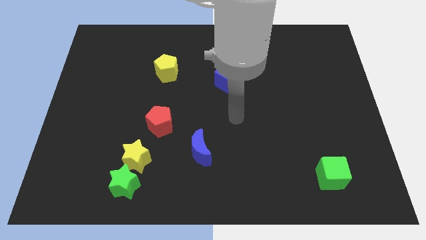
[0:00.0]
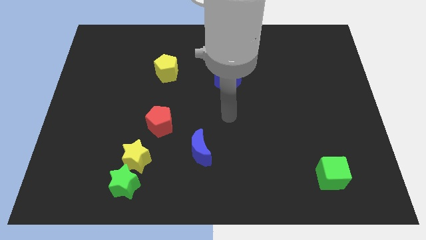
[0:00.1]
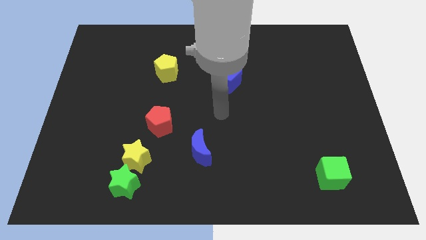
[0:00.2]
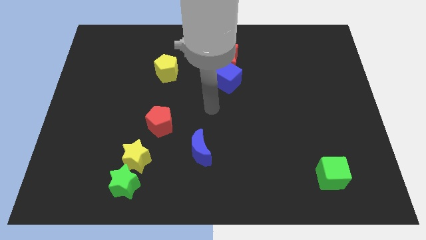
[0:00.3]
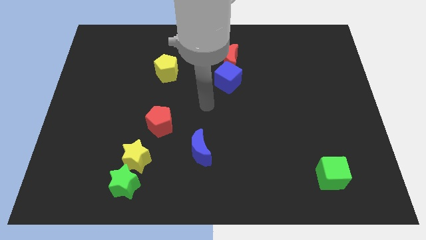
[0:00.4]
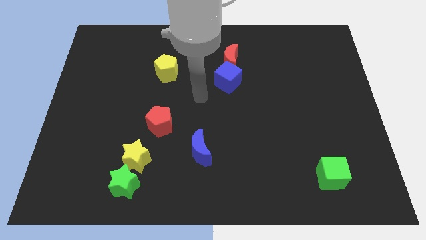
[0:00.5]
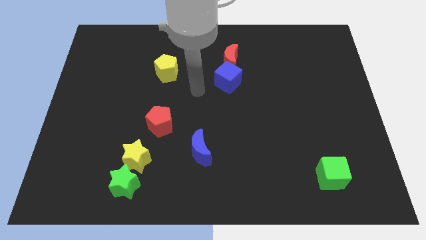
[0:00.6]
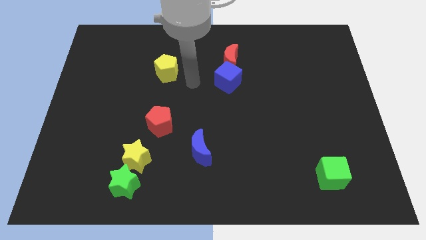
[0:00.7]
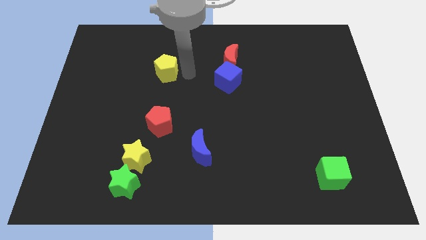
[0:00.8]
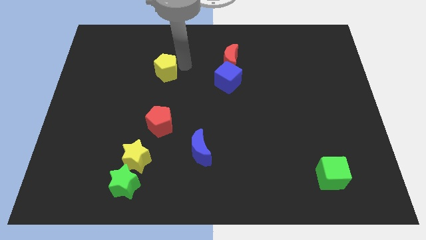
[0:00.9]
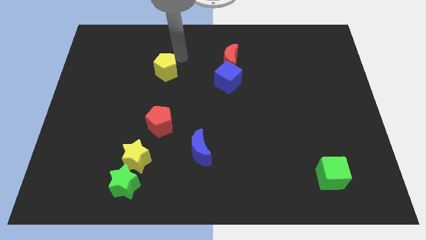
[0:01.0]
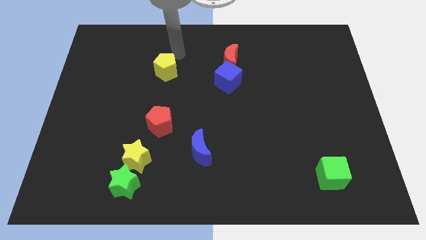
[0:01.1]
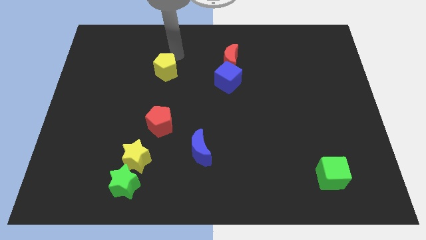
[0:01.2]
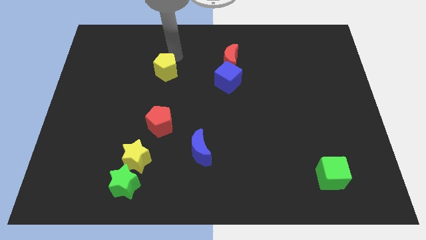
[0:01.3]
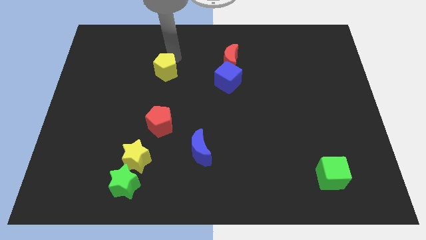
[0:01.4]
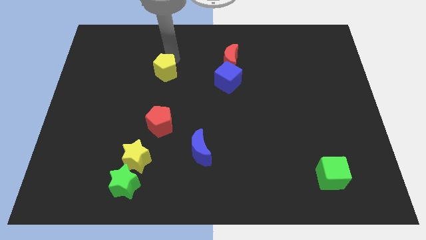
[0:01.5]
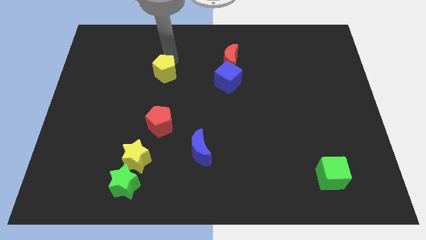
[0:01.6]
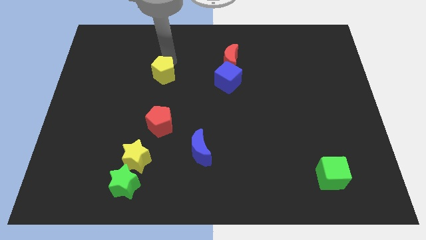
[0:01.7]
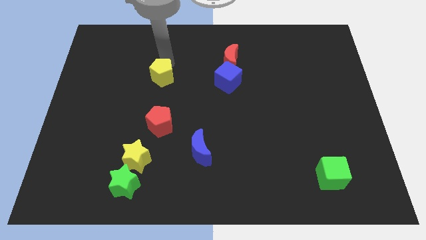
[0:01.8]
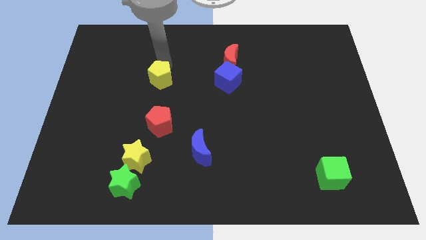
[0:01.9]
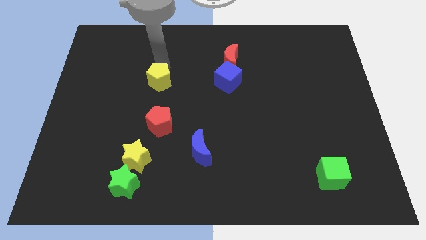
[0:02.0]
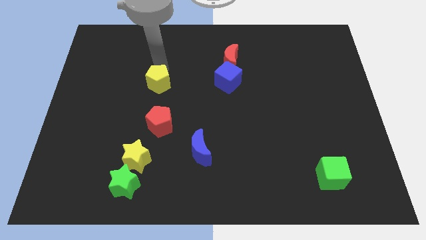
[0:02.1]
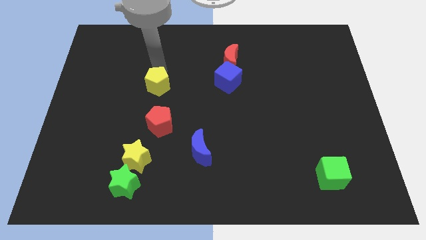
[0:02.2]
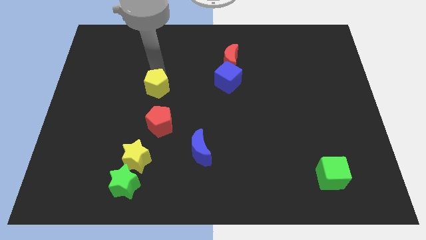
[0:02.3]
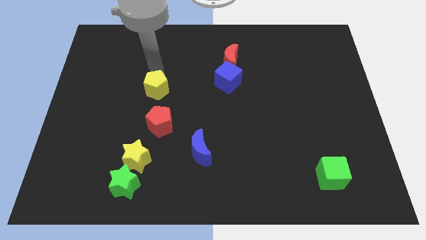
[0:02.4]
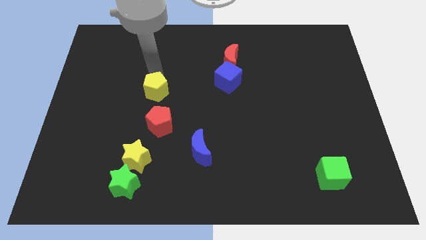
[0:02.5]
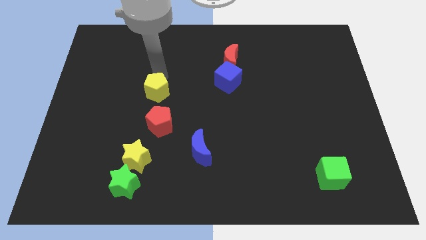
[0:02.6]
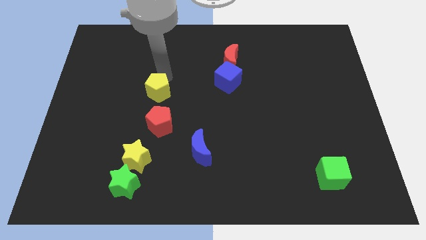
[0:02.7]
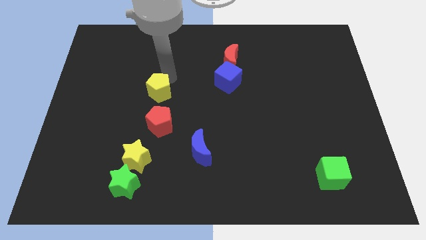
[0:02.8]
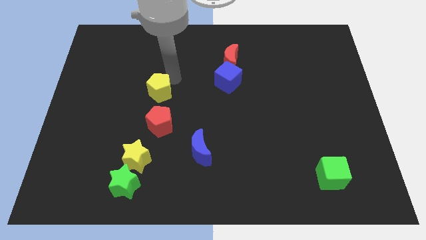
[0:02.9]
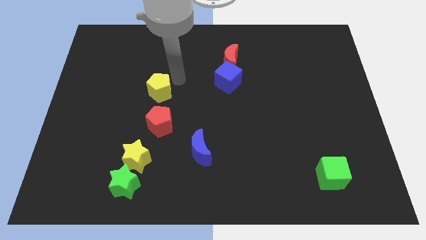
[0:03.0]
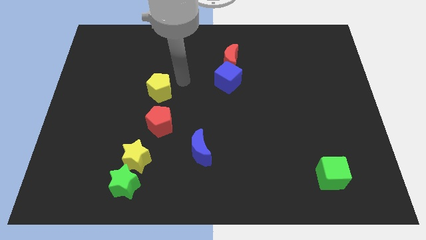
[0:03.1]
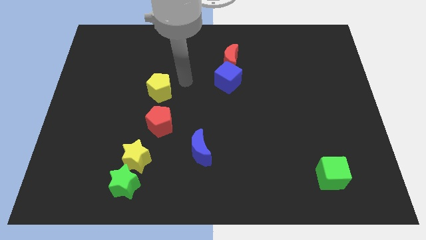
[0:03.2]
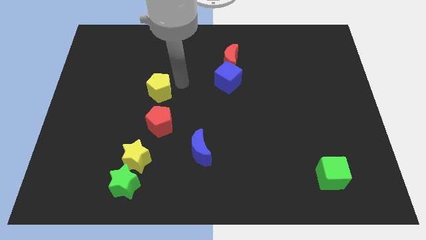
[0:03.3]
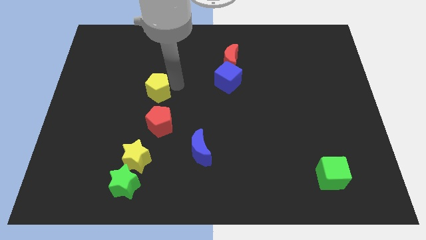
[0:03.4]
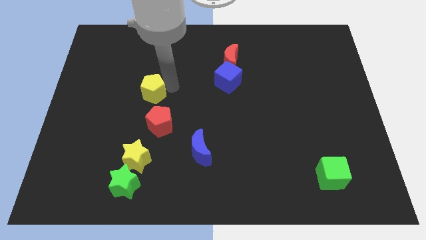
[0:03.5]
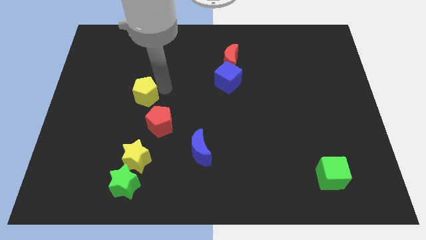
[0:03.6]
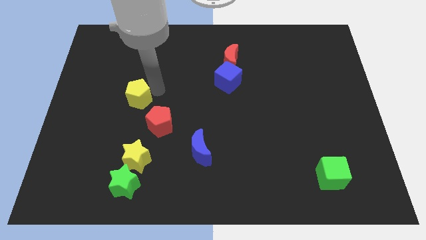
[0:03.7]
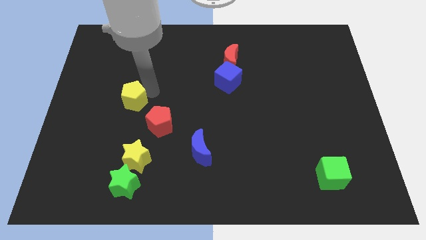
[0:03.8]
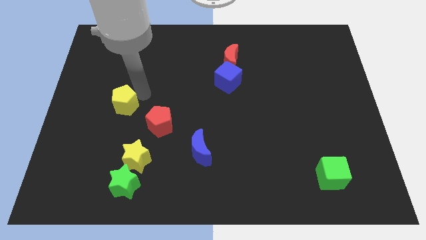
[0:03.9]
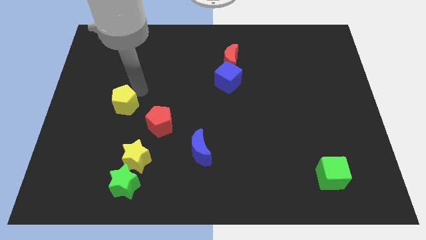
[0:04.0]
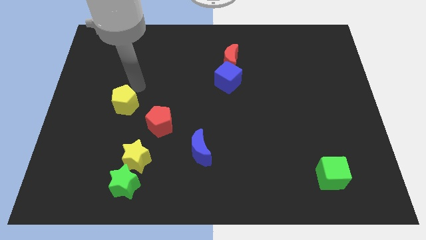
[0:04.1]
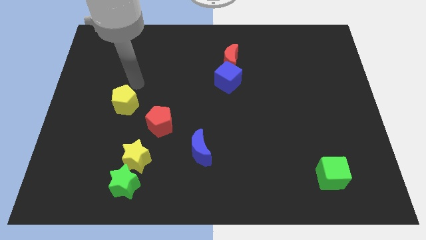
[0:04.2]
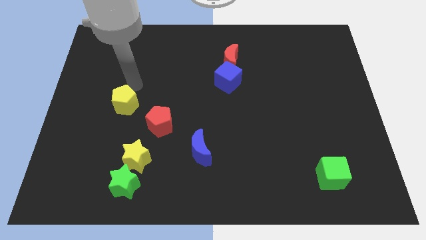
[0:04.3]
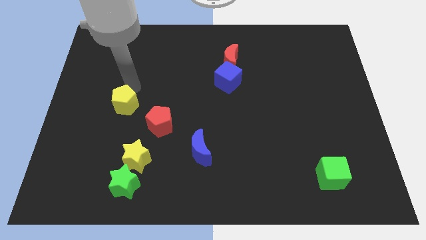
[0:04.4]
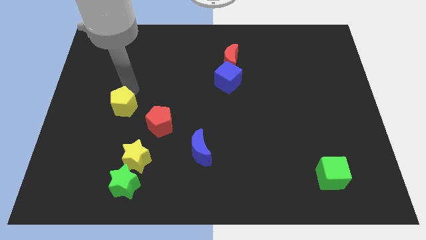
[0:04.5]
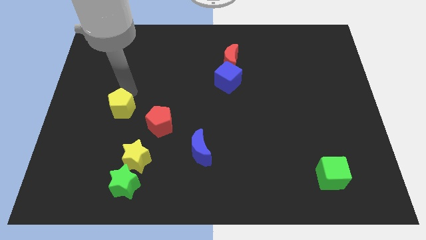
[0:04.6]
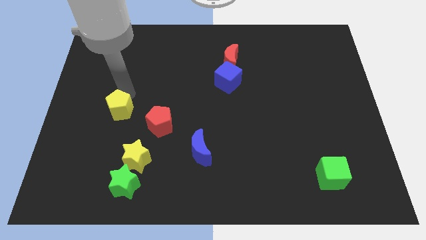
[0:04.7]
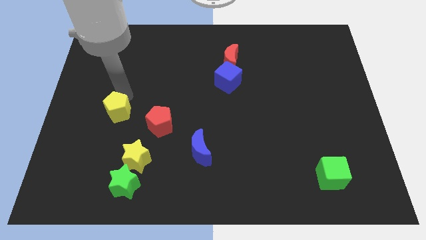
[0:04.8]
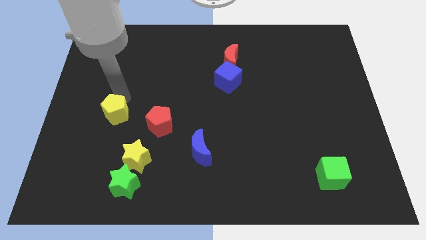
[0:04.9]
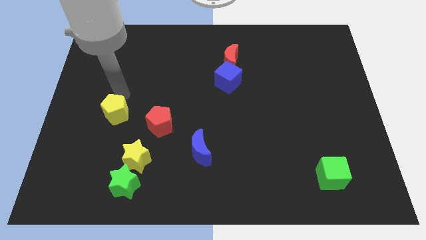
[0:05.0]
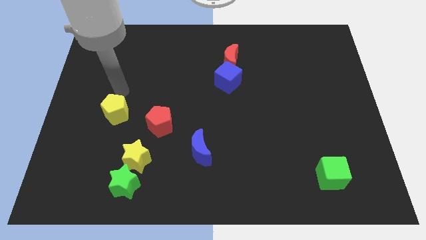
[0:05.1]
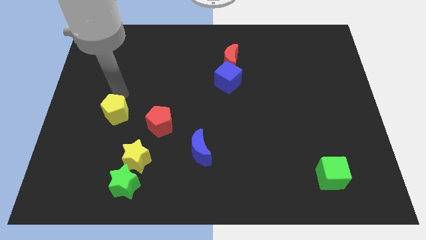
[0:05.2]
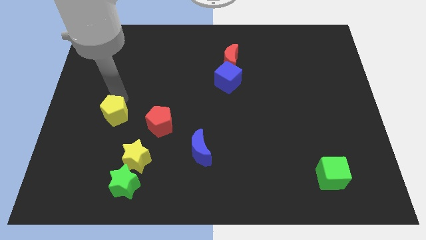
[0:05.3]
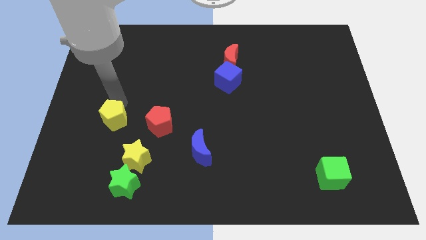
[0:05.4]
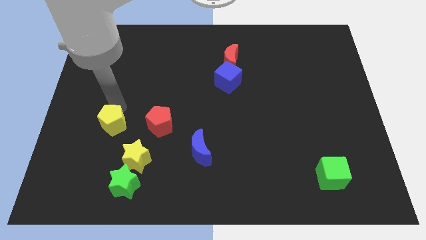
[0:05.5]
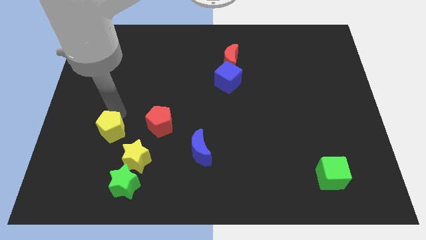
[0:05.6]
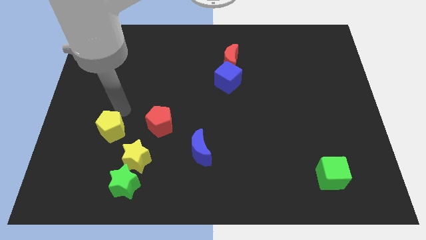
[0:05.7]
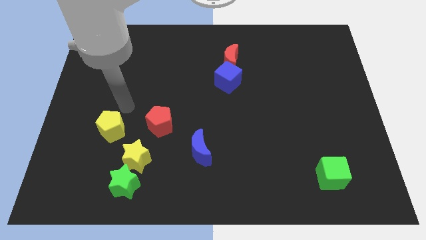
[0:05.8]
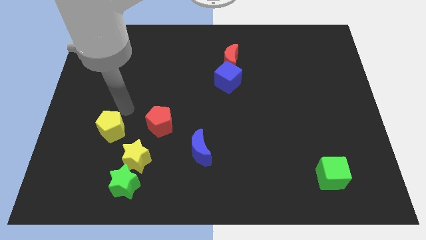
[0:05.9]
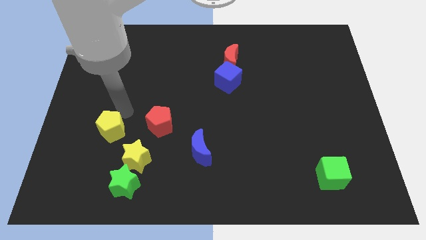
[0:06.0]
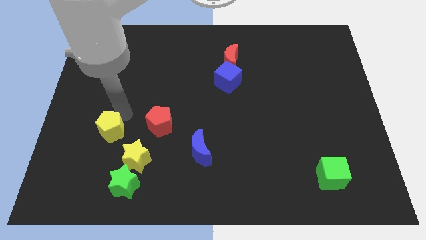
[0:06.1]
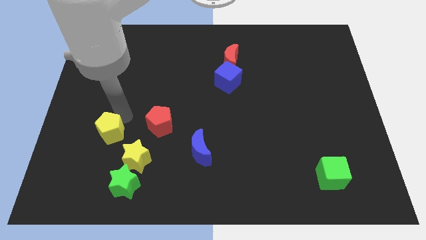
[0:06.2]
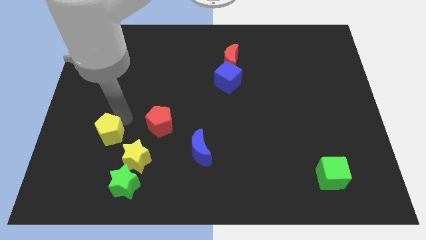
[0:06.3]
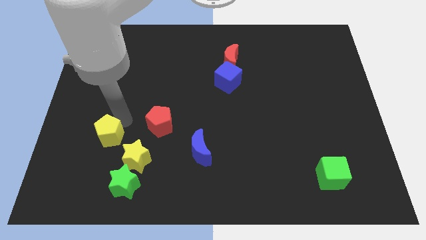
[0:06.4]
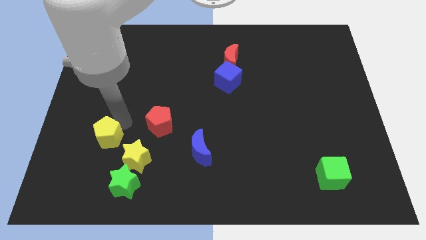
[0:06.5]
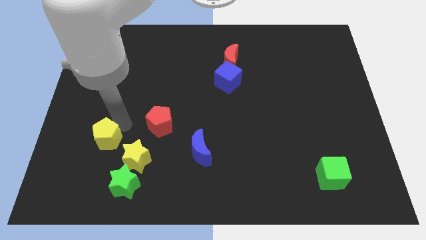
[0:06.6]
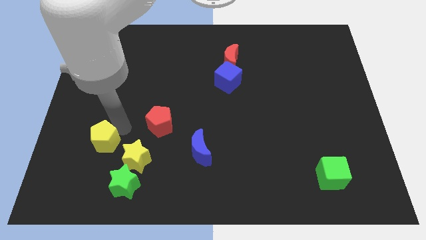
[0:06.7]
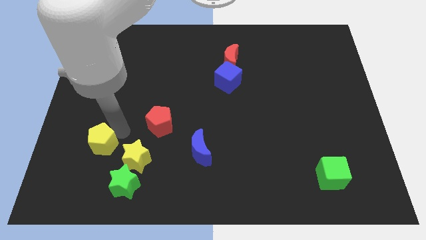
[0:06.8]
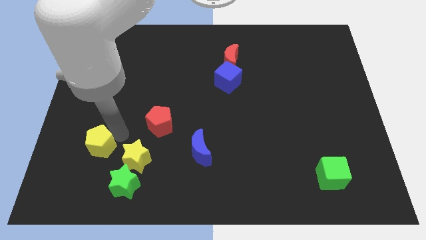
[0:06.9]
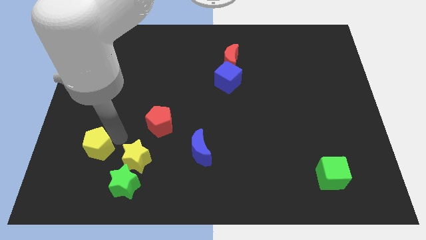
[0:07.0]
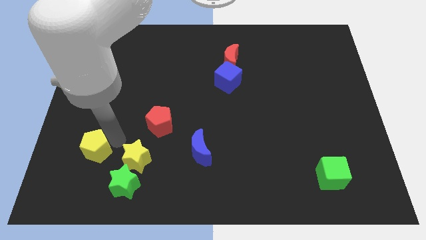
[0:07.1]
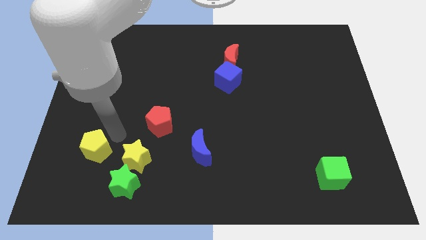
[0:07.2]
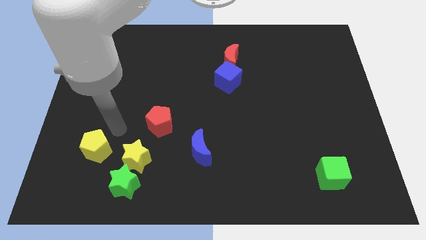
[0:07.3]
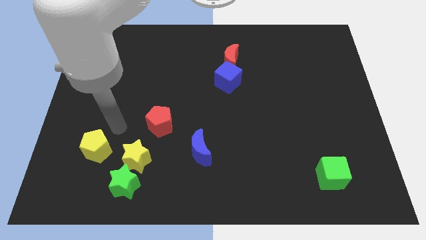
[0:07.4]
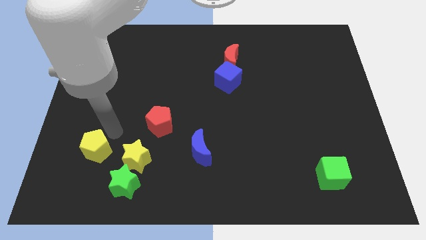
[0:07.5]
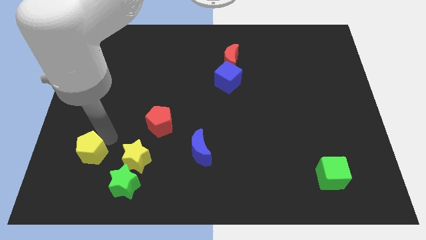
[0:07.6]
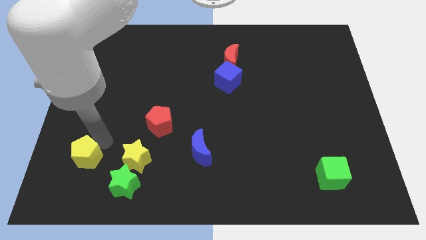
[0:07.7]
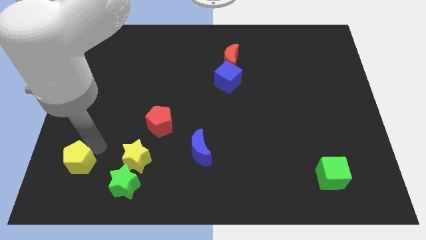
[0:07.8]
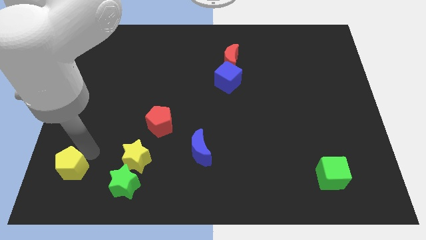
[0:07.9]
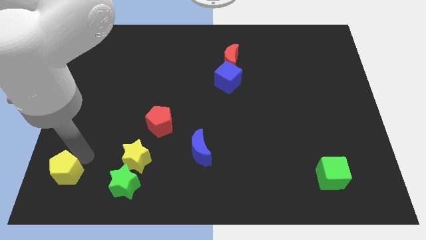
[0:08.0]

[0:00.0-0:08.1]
move the yellow pentagon to the bottom left corner
